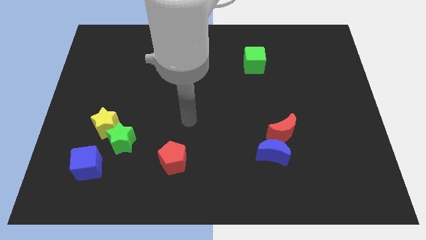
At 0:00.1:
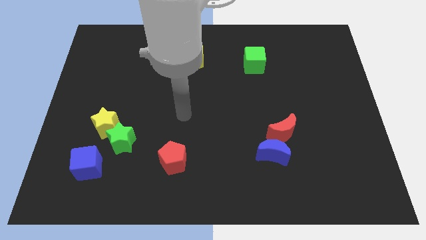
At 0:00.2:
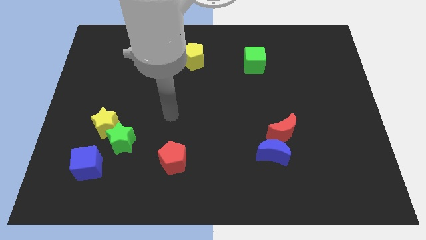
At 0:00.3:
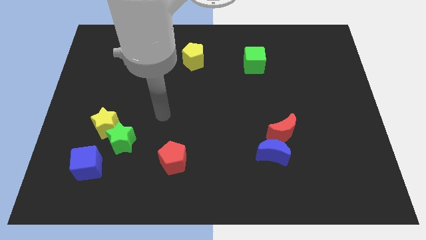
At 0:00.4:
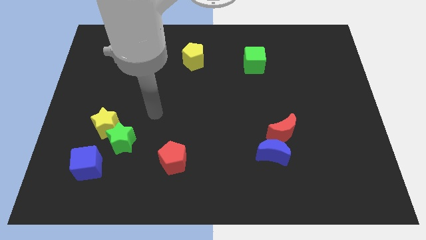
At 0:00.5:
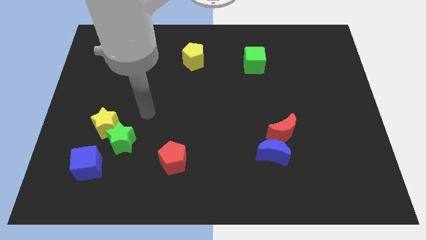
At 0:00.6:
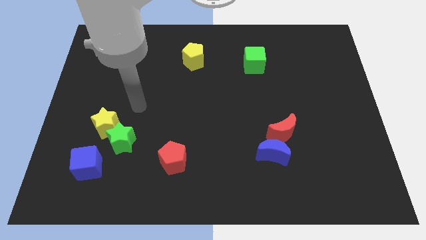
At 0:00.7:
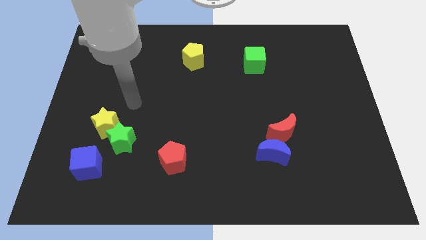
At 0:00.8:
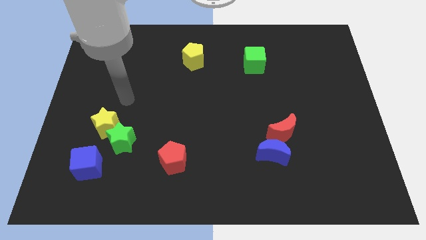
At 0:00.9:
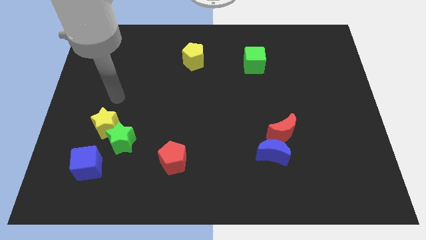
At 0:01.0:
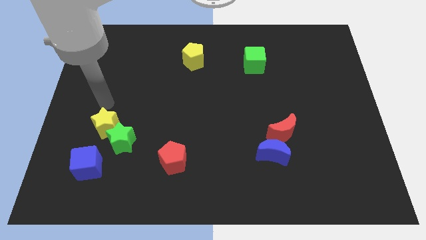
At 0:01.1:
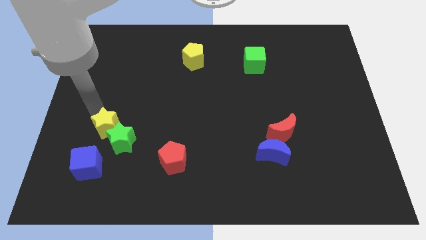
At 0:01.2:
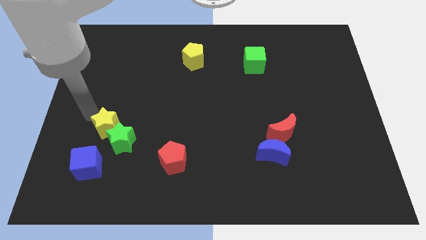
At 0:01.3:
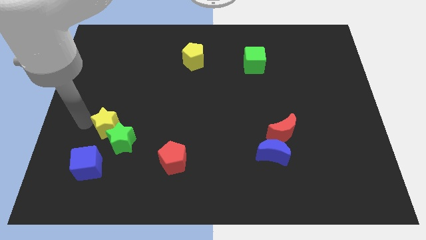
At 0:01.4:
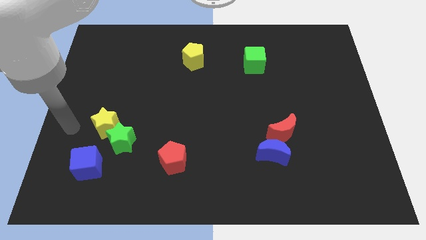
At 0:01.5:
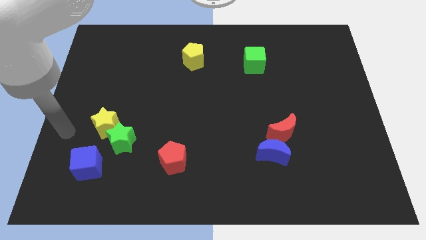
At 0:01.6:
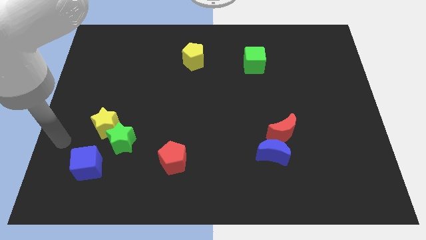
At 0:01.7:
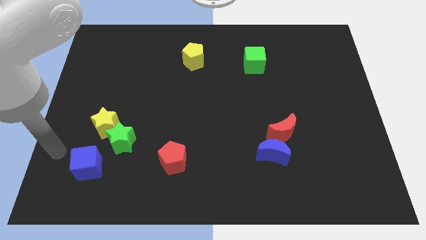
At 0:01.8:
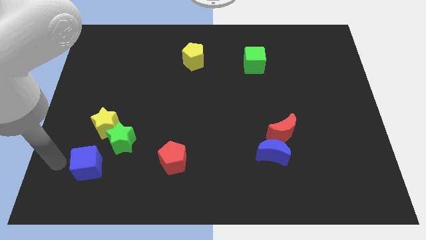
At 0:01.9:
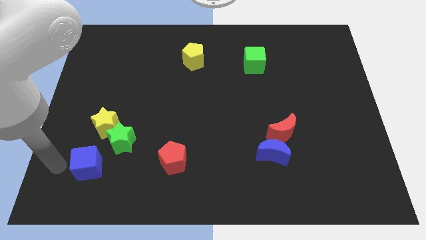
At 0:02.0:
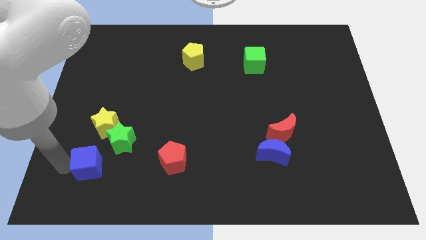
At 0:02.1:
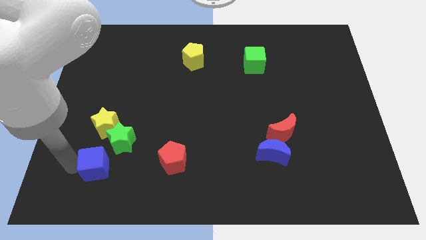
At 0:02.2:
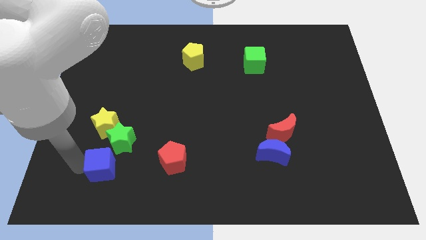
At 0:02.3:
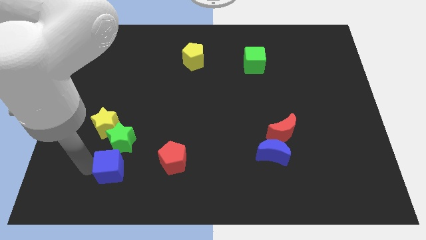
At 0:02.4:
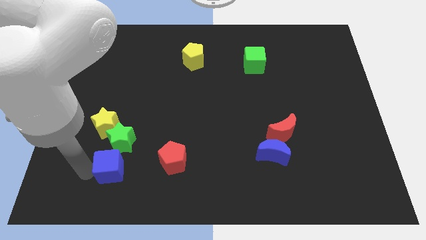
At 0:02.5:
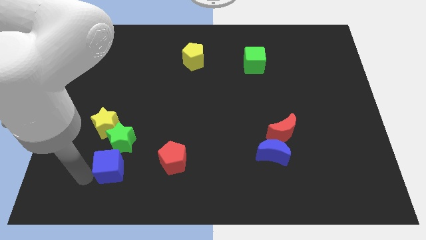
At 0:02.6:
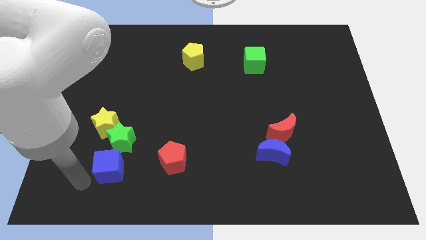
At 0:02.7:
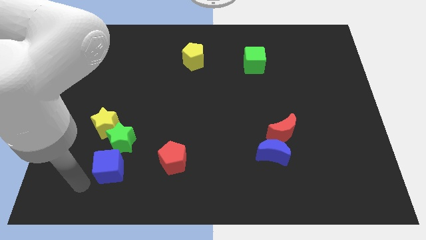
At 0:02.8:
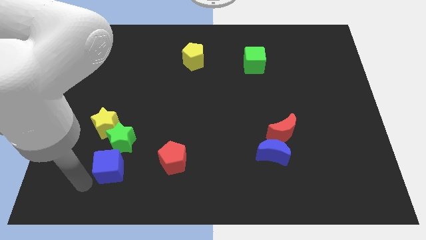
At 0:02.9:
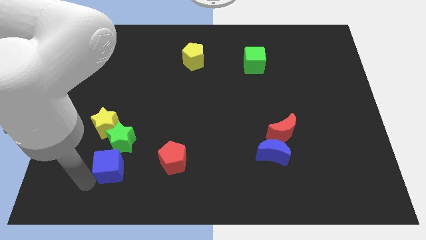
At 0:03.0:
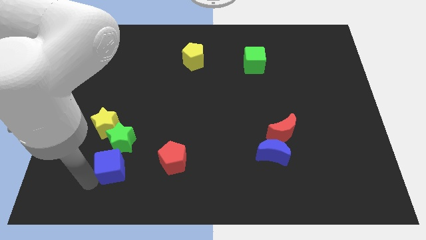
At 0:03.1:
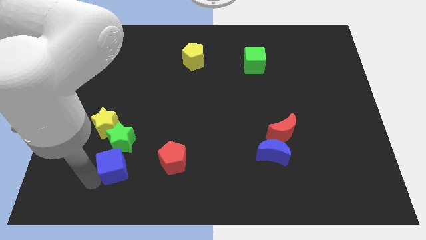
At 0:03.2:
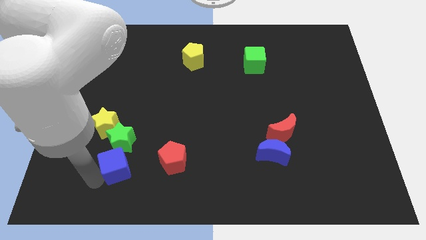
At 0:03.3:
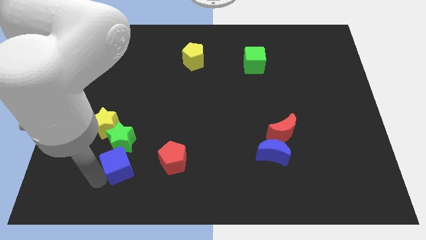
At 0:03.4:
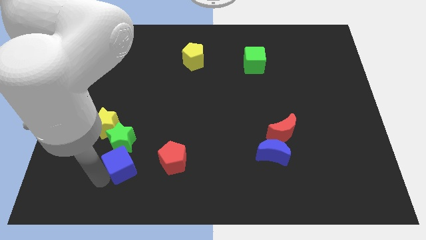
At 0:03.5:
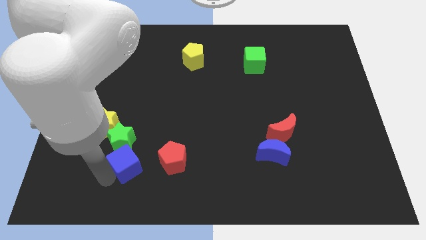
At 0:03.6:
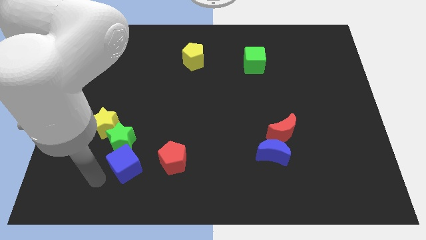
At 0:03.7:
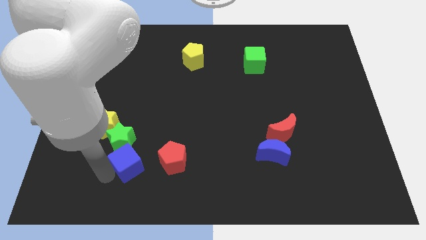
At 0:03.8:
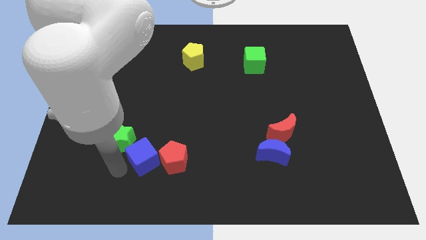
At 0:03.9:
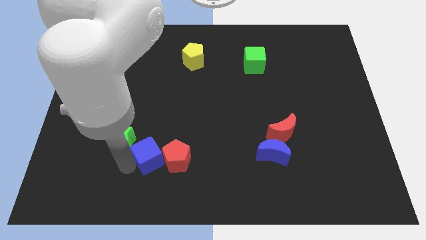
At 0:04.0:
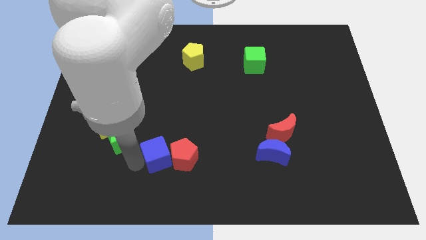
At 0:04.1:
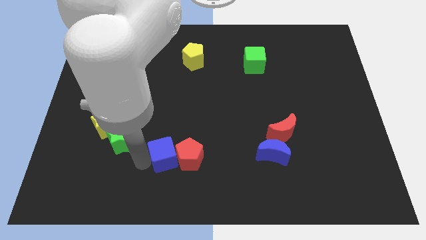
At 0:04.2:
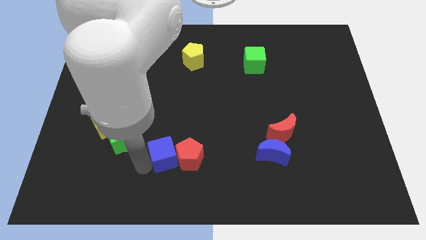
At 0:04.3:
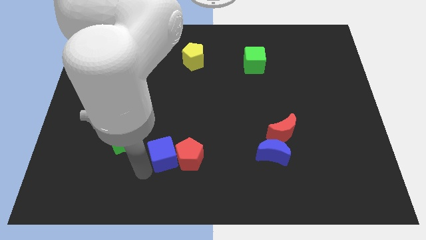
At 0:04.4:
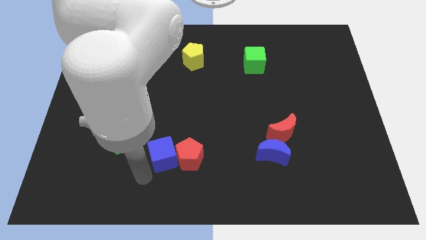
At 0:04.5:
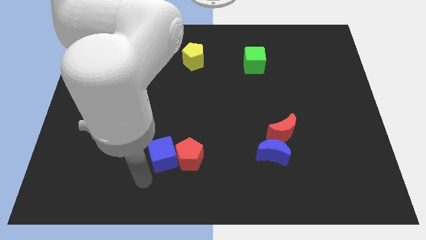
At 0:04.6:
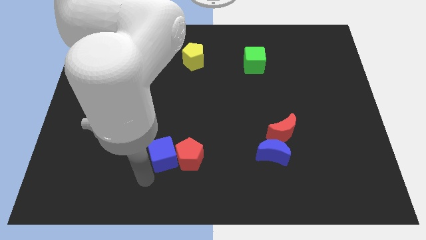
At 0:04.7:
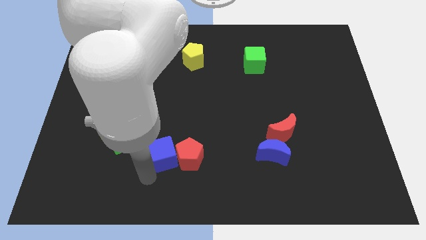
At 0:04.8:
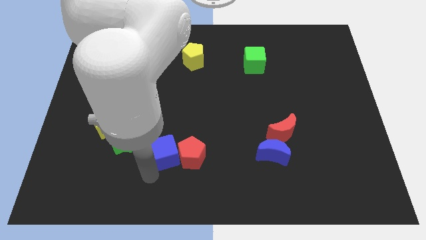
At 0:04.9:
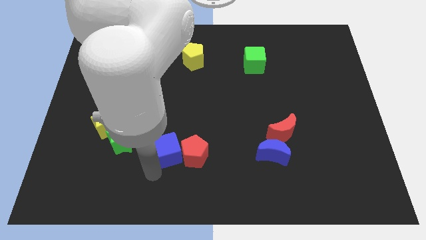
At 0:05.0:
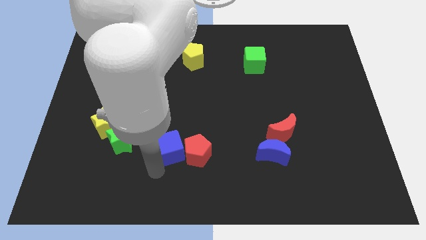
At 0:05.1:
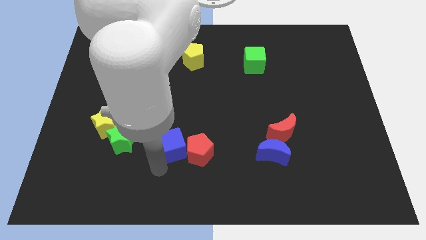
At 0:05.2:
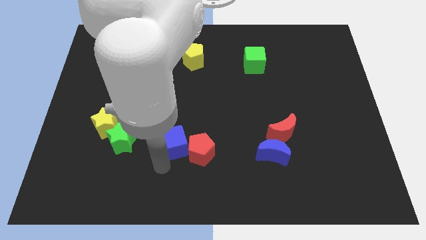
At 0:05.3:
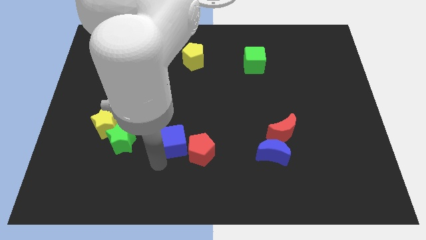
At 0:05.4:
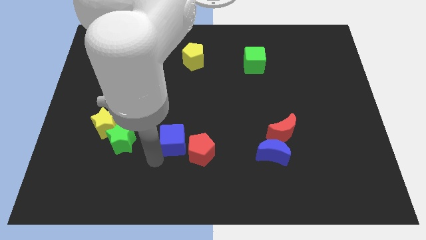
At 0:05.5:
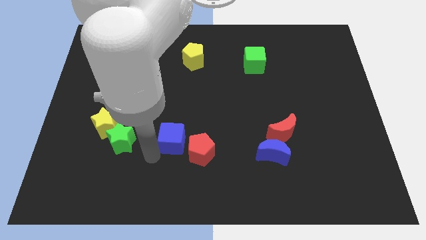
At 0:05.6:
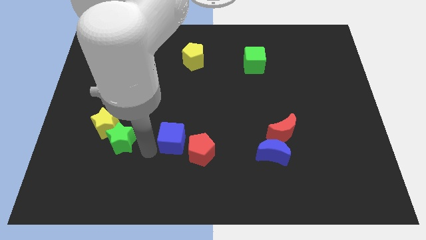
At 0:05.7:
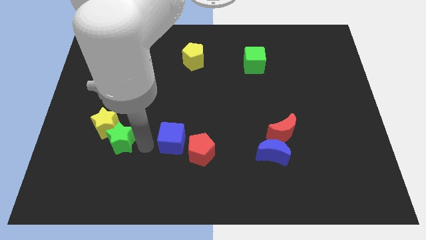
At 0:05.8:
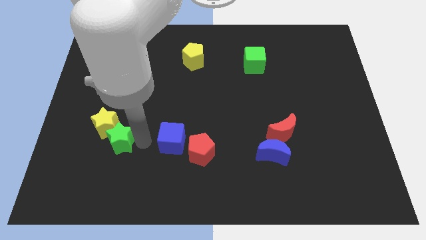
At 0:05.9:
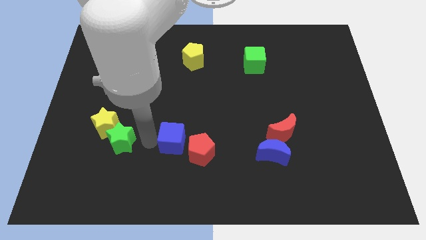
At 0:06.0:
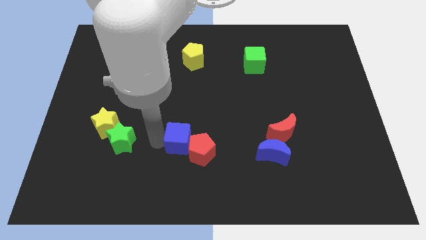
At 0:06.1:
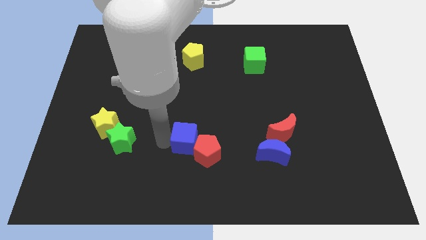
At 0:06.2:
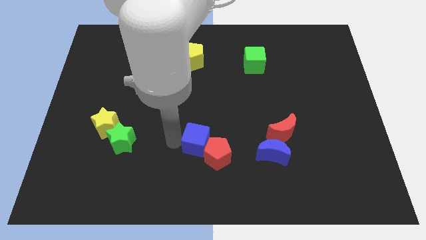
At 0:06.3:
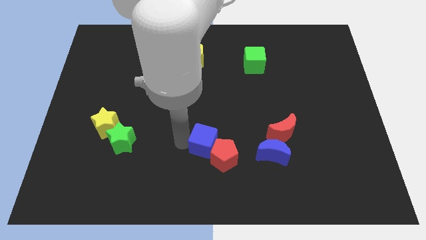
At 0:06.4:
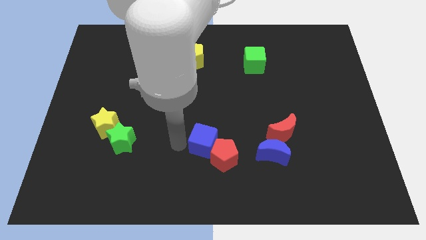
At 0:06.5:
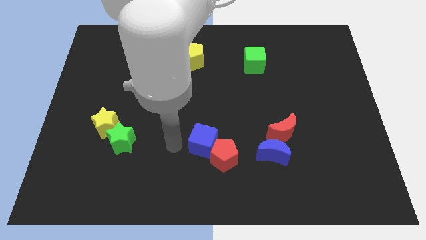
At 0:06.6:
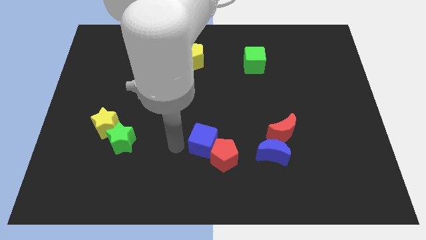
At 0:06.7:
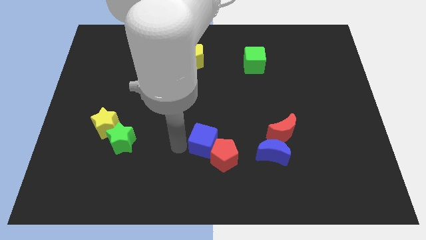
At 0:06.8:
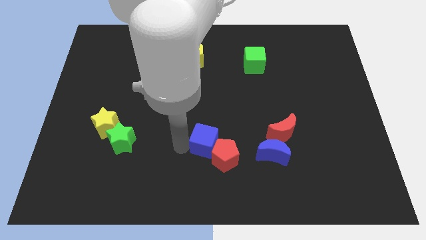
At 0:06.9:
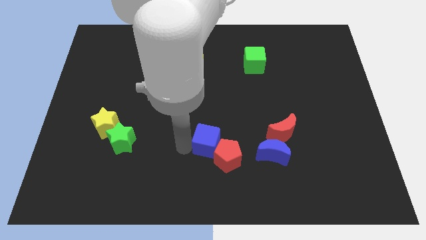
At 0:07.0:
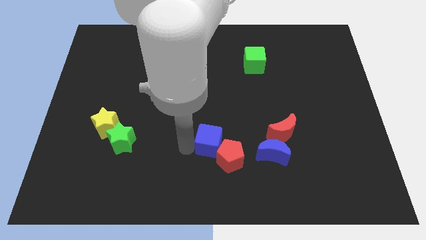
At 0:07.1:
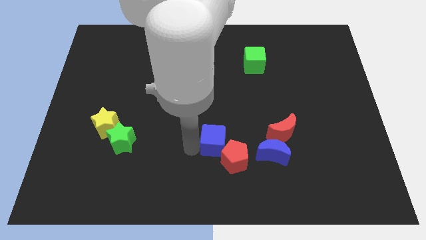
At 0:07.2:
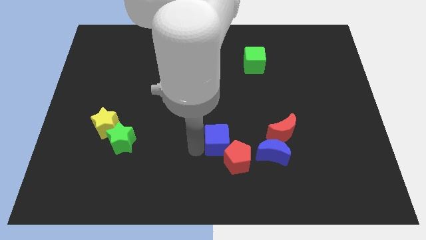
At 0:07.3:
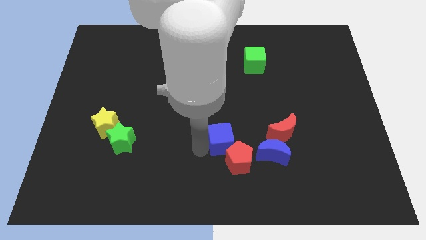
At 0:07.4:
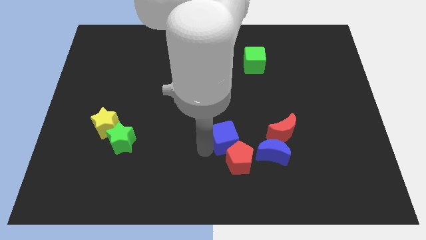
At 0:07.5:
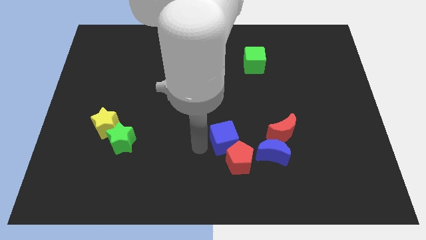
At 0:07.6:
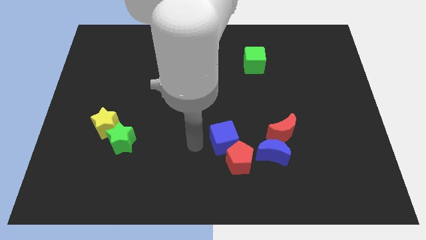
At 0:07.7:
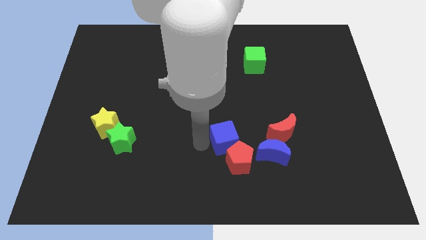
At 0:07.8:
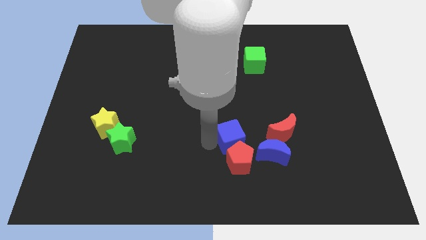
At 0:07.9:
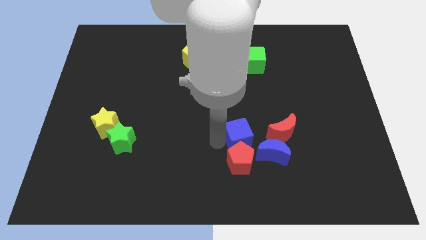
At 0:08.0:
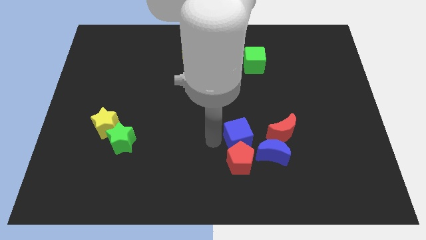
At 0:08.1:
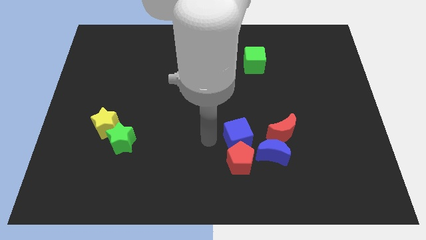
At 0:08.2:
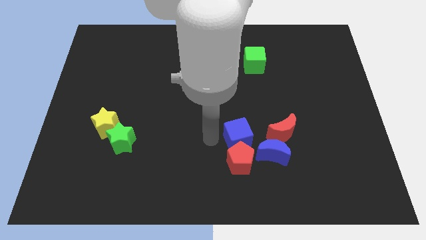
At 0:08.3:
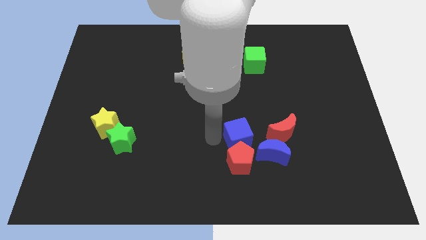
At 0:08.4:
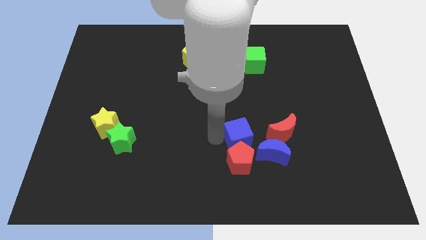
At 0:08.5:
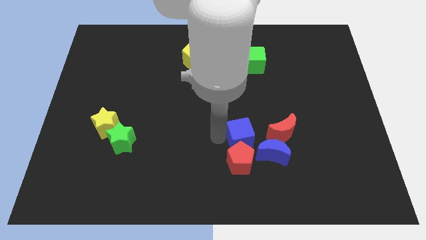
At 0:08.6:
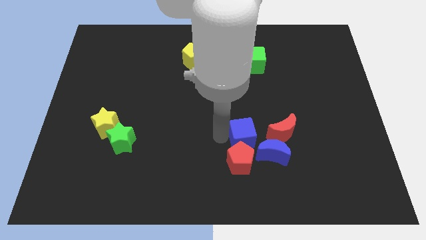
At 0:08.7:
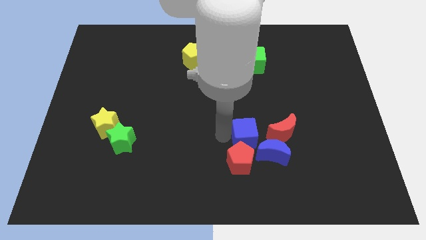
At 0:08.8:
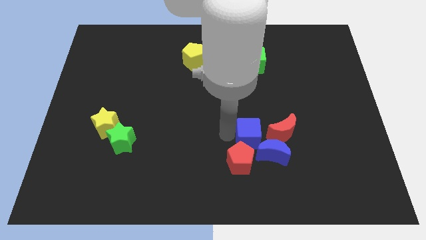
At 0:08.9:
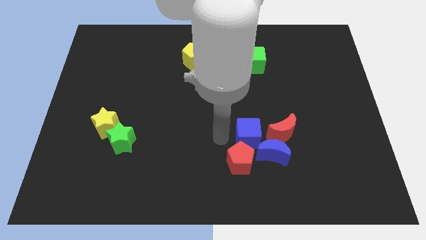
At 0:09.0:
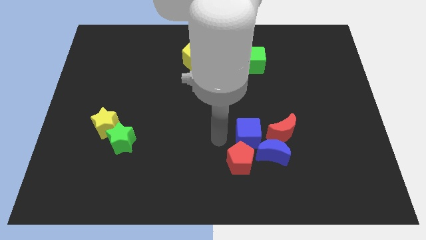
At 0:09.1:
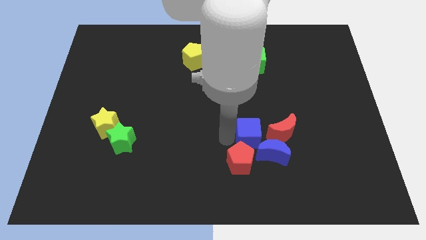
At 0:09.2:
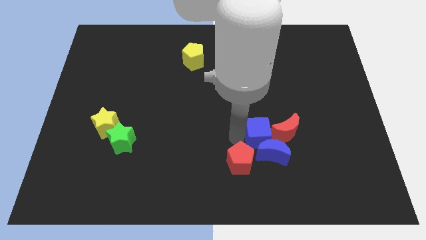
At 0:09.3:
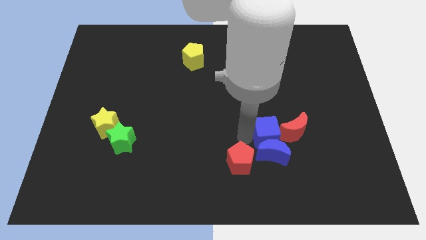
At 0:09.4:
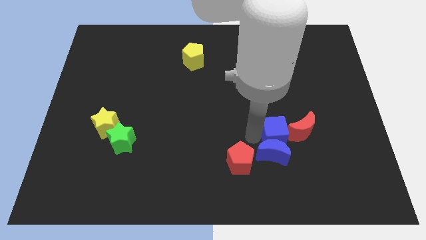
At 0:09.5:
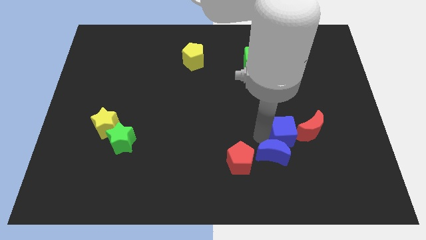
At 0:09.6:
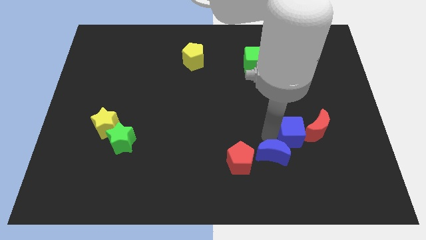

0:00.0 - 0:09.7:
move the blue cube next to the red moon
